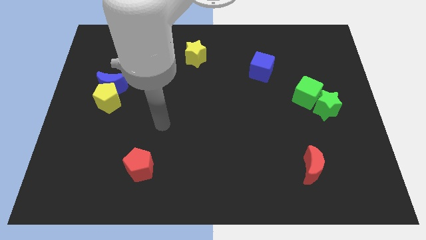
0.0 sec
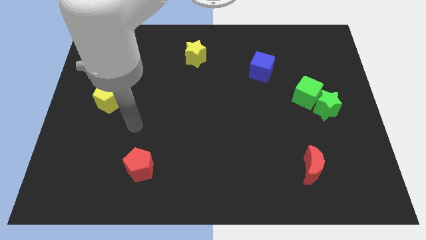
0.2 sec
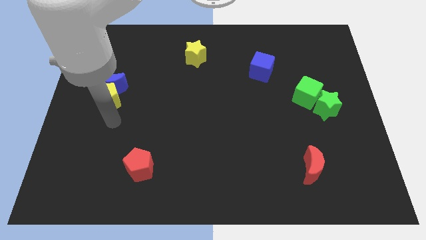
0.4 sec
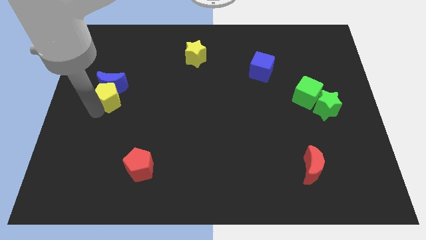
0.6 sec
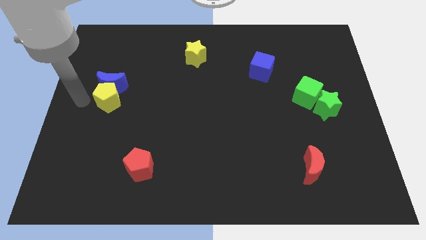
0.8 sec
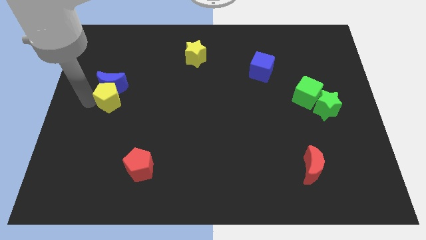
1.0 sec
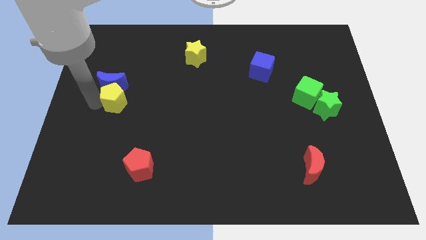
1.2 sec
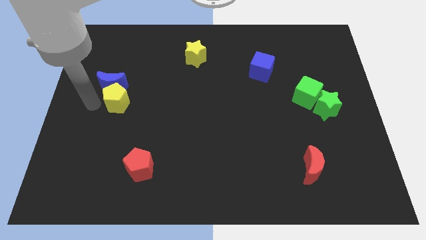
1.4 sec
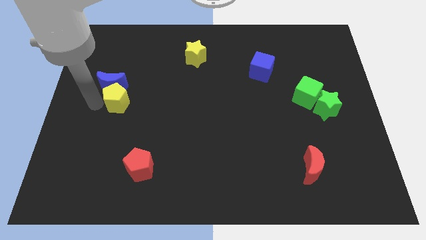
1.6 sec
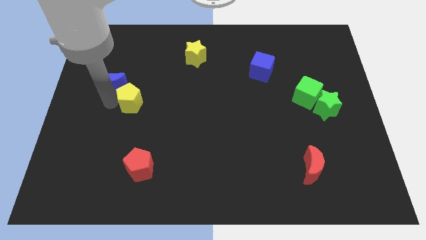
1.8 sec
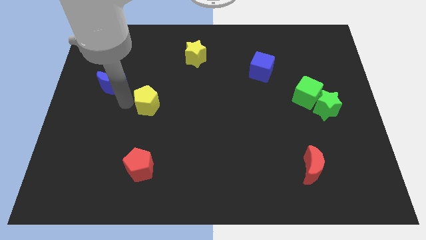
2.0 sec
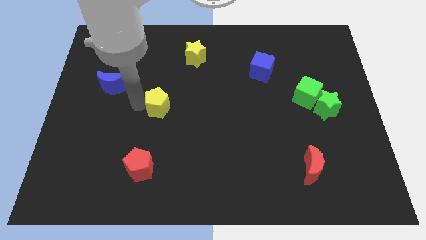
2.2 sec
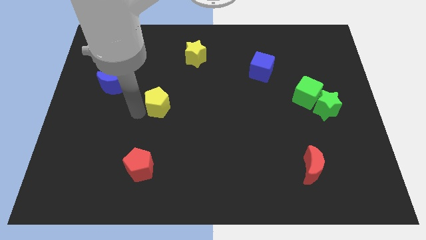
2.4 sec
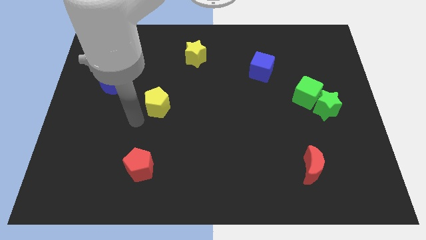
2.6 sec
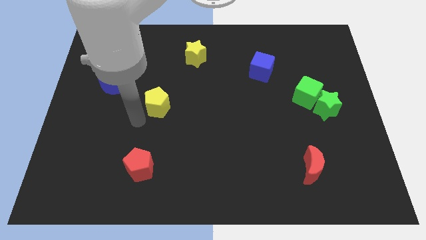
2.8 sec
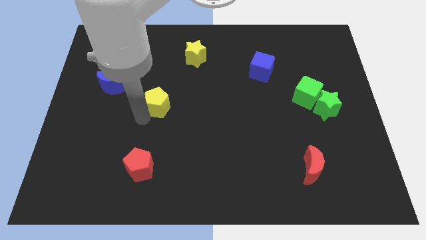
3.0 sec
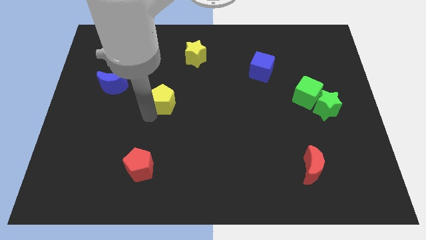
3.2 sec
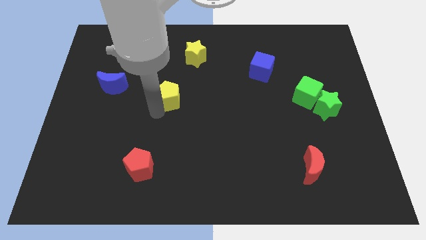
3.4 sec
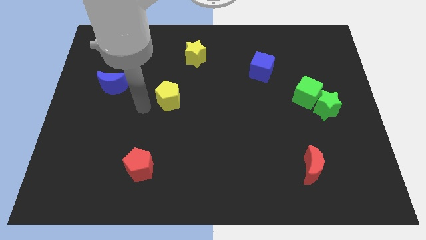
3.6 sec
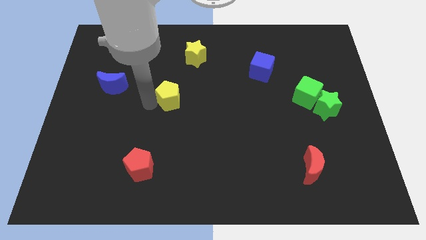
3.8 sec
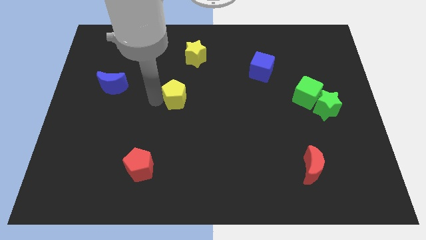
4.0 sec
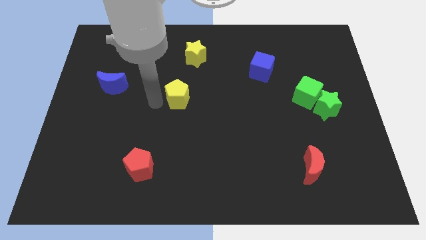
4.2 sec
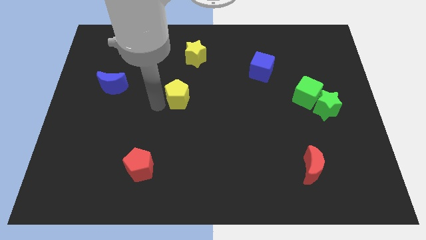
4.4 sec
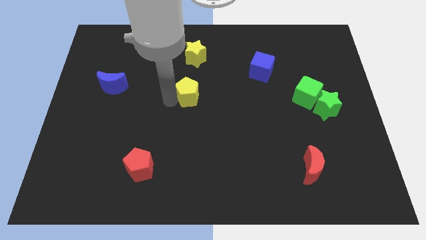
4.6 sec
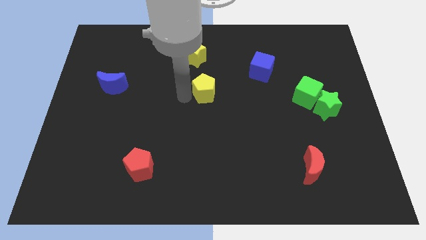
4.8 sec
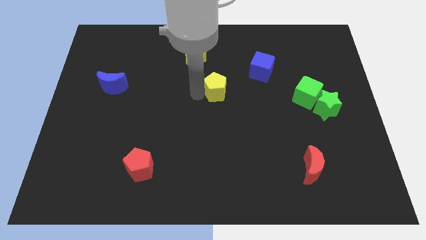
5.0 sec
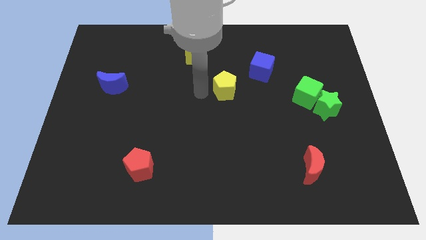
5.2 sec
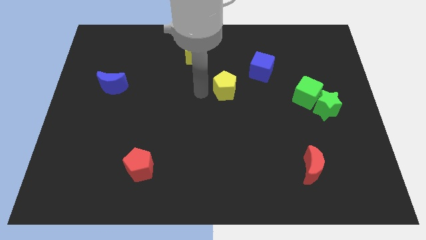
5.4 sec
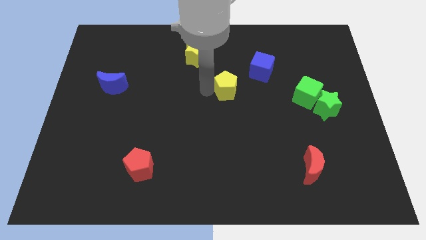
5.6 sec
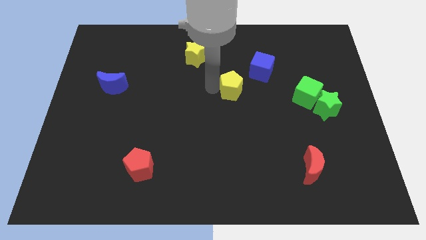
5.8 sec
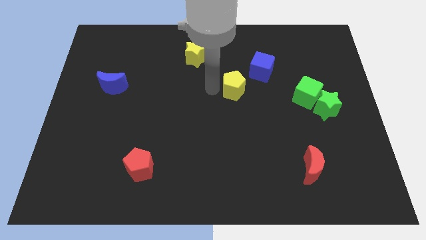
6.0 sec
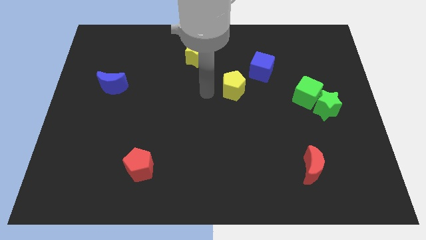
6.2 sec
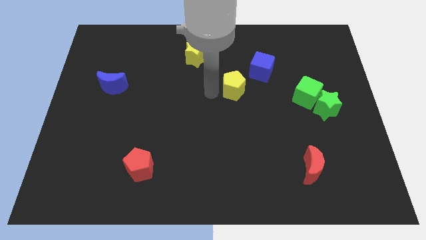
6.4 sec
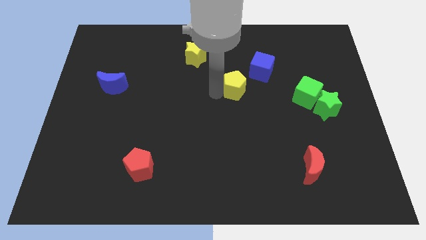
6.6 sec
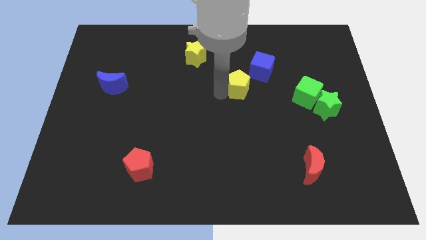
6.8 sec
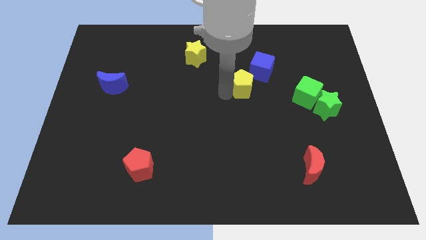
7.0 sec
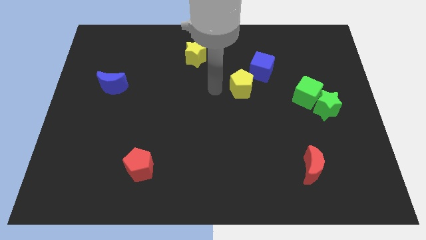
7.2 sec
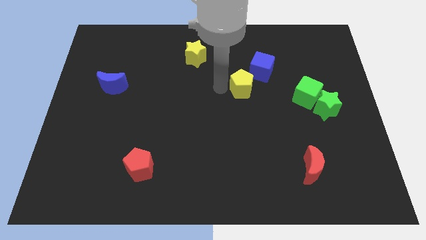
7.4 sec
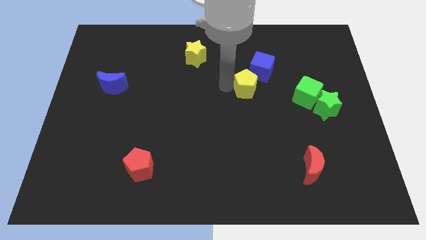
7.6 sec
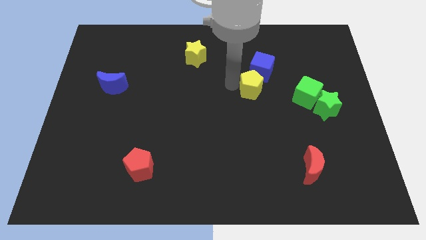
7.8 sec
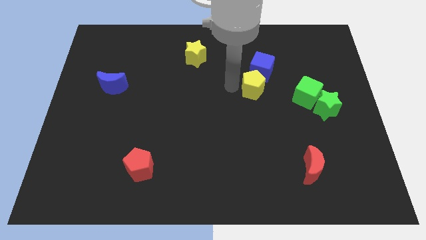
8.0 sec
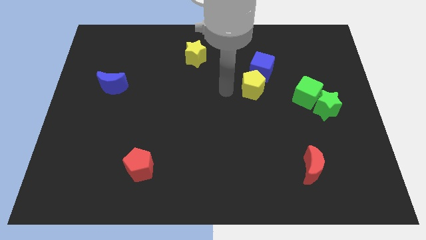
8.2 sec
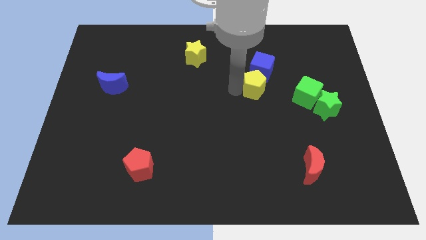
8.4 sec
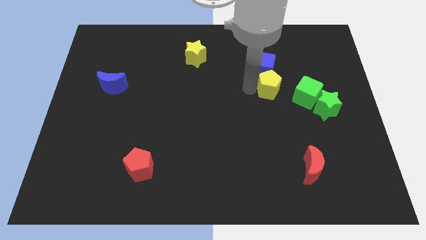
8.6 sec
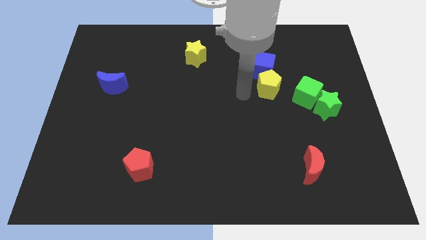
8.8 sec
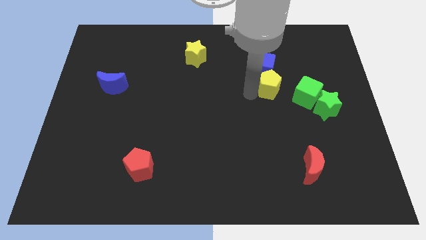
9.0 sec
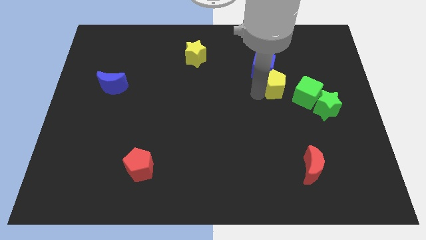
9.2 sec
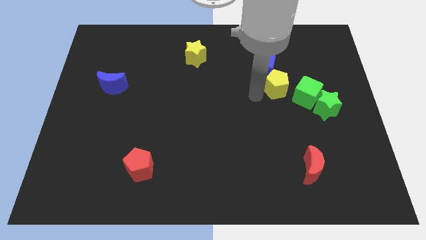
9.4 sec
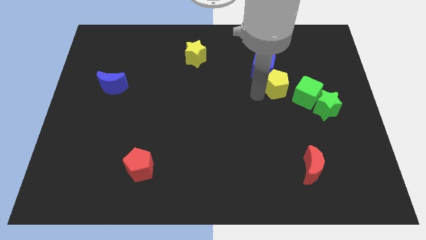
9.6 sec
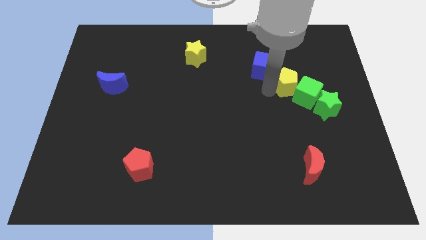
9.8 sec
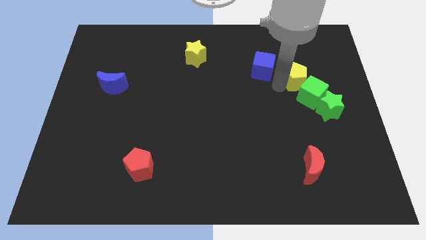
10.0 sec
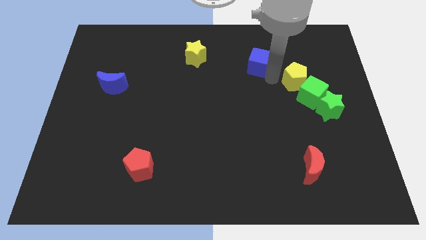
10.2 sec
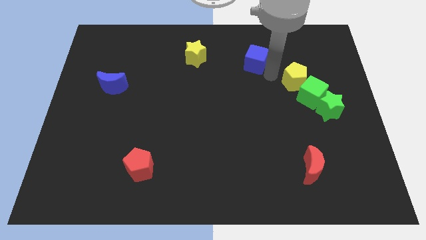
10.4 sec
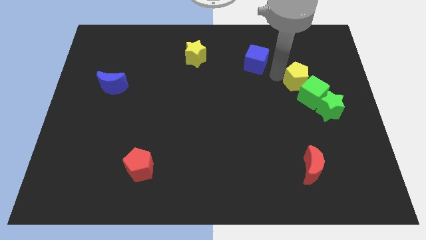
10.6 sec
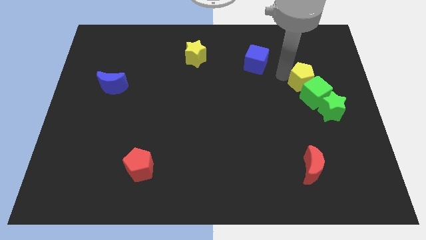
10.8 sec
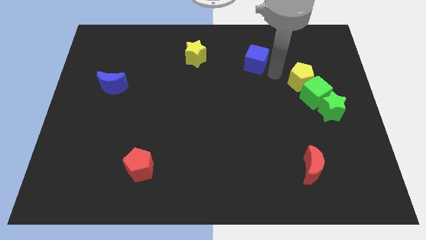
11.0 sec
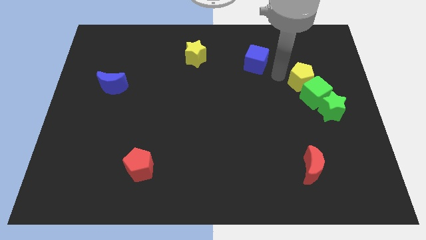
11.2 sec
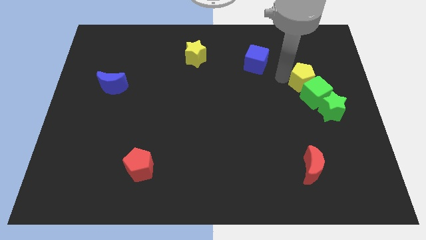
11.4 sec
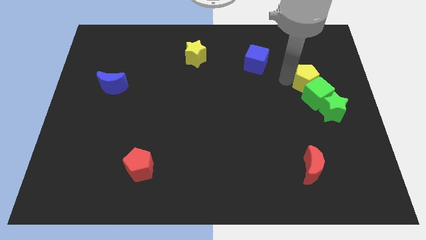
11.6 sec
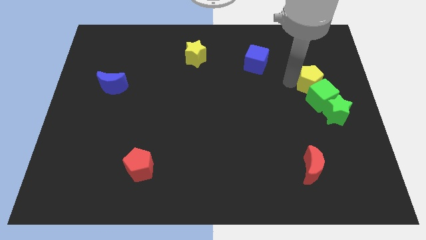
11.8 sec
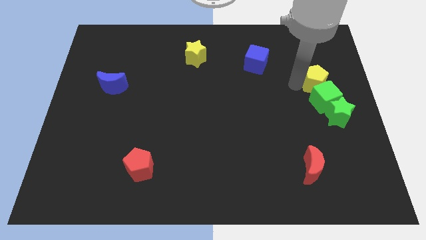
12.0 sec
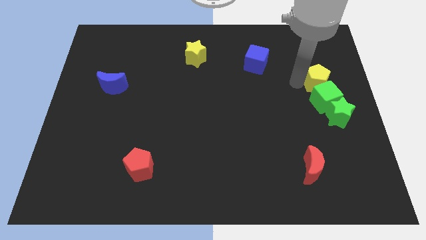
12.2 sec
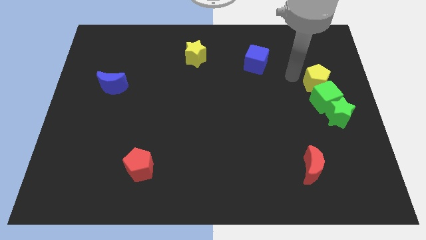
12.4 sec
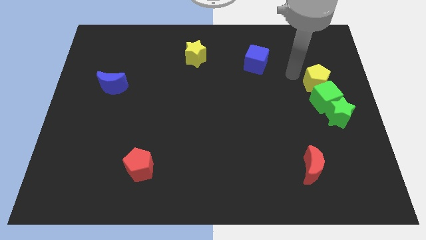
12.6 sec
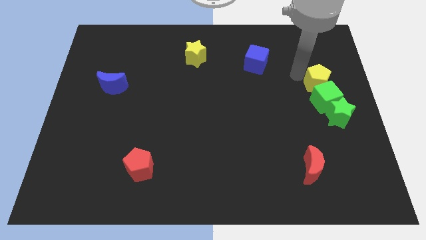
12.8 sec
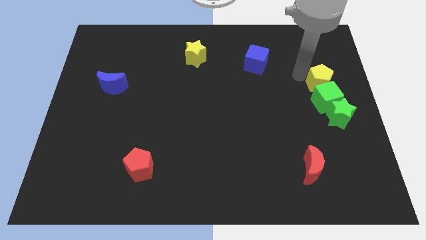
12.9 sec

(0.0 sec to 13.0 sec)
push the yellow pentagon to the right side

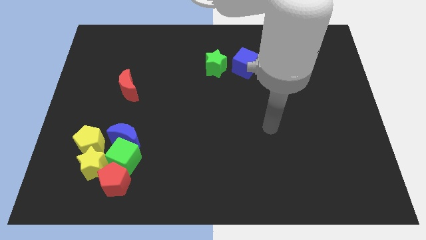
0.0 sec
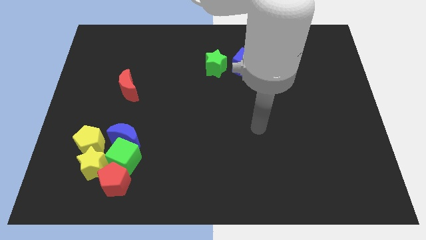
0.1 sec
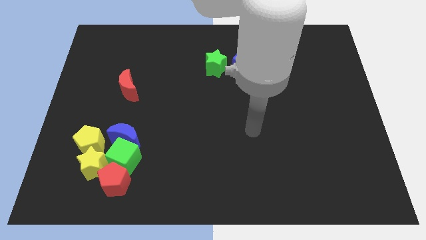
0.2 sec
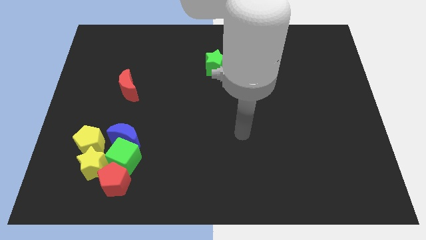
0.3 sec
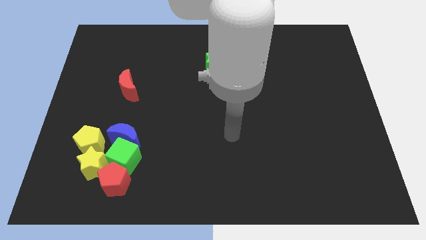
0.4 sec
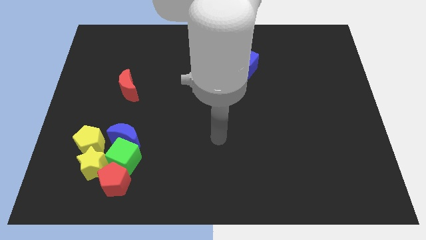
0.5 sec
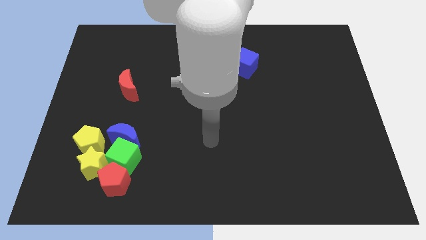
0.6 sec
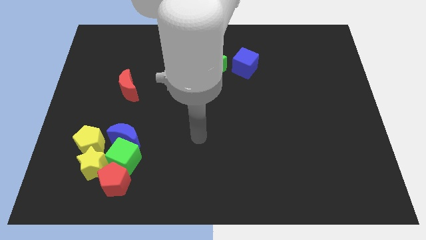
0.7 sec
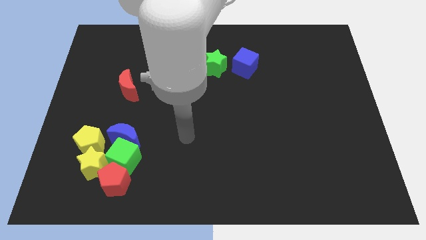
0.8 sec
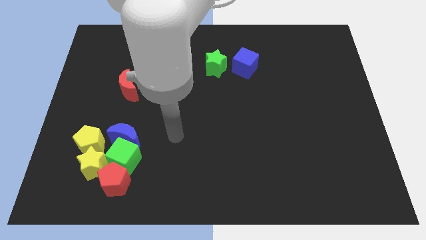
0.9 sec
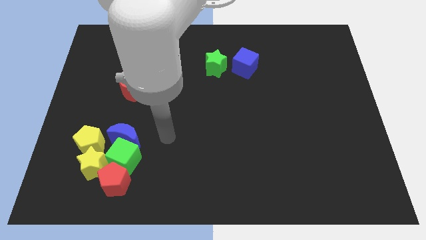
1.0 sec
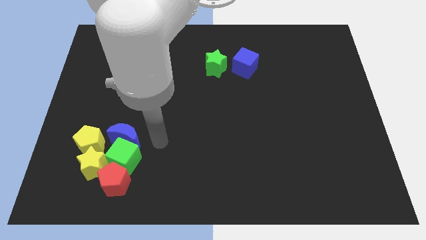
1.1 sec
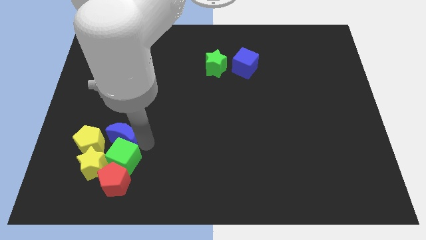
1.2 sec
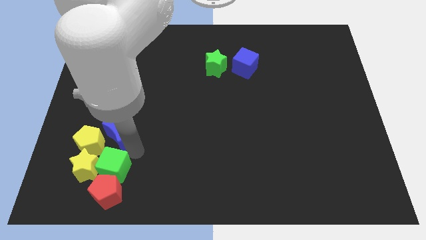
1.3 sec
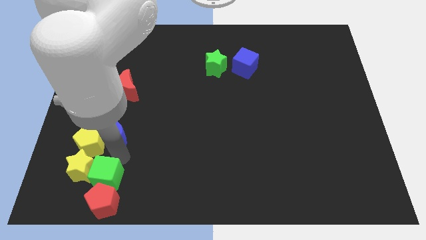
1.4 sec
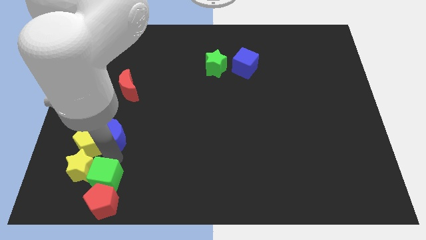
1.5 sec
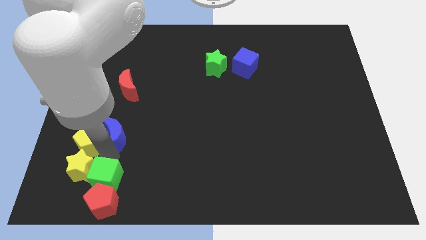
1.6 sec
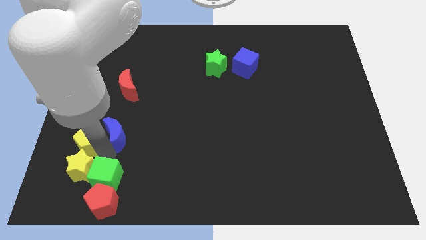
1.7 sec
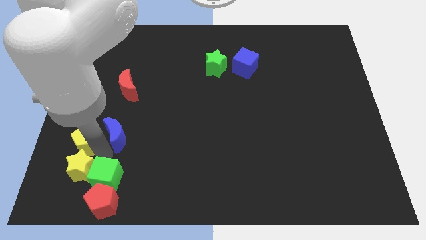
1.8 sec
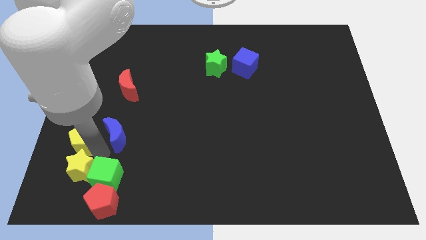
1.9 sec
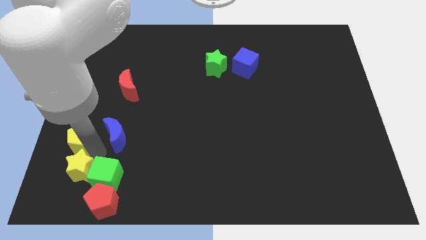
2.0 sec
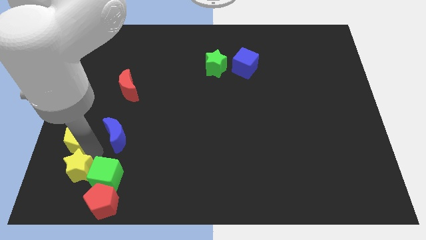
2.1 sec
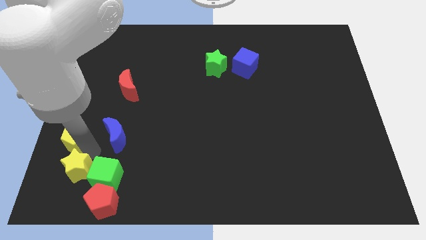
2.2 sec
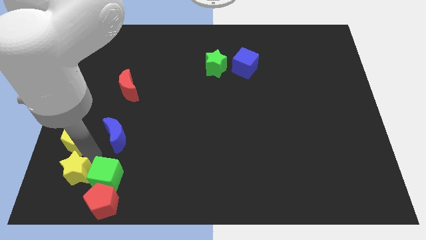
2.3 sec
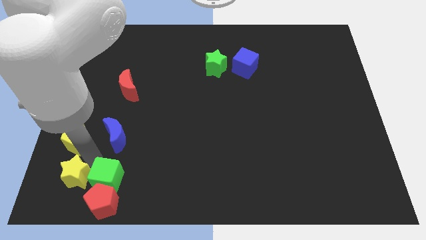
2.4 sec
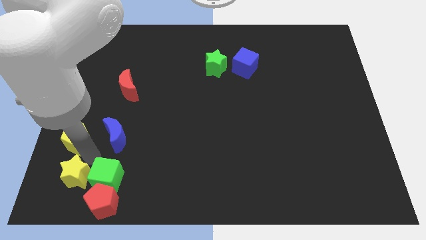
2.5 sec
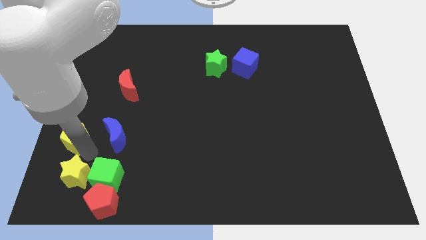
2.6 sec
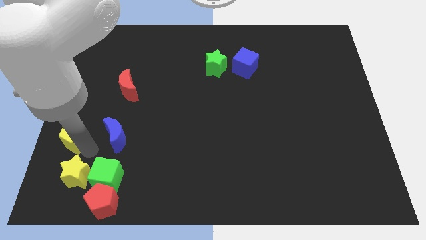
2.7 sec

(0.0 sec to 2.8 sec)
push the yellow pentagon to the left side
